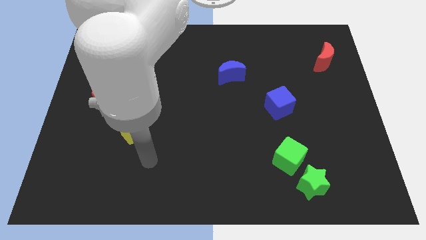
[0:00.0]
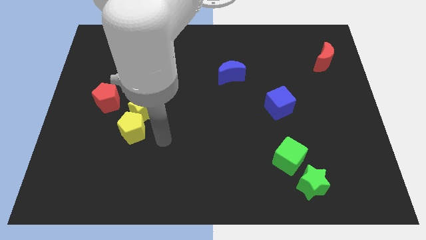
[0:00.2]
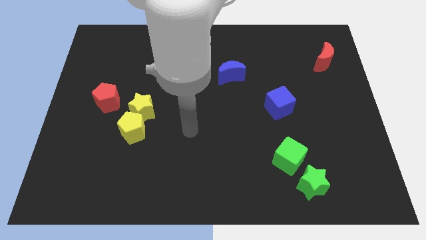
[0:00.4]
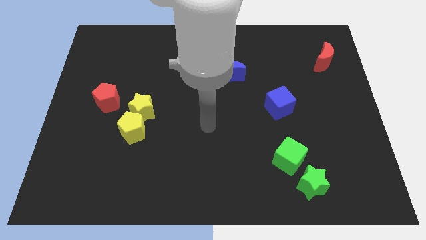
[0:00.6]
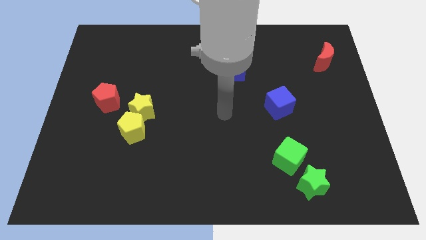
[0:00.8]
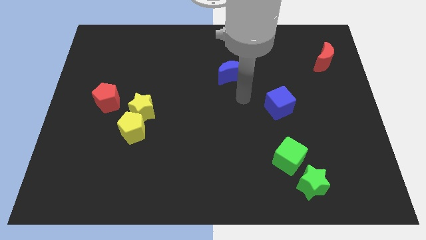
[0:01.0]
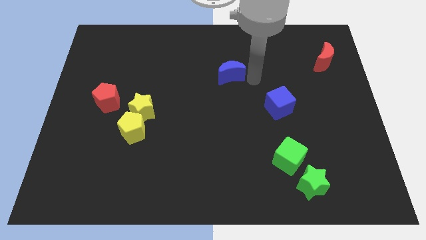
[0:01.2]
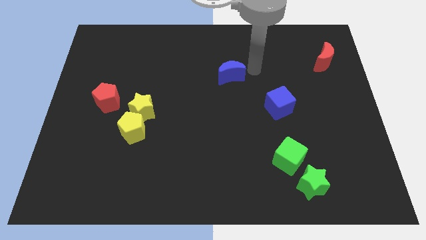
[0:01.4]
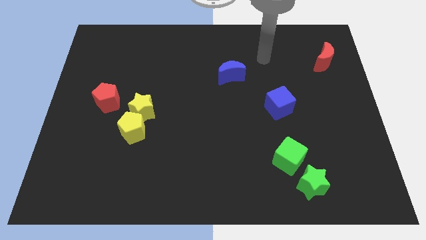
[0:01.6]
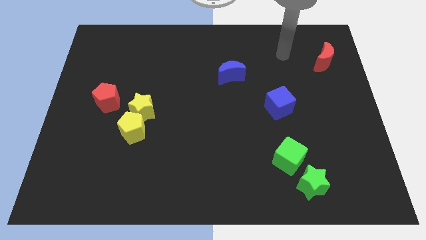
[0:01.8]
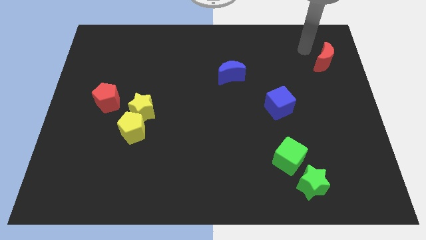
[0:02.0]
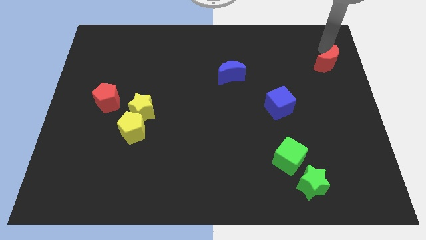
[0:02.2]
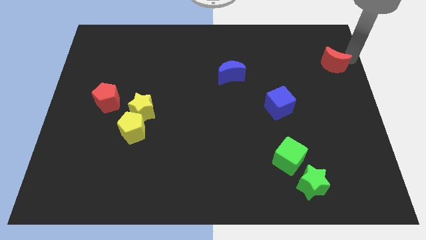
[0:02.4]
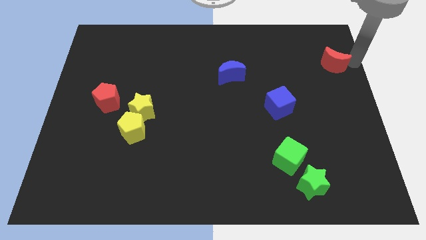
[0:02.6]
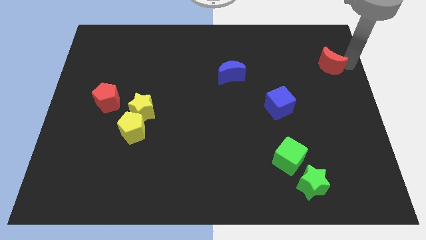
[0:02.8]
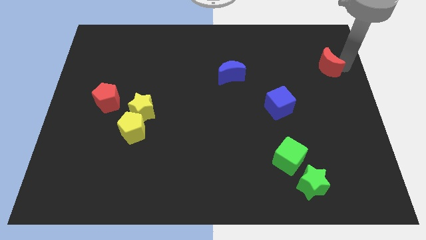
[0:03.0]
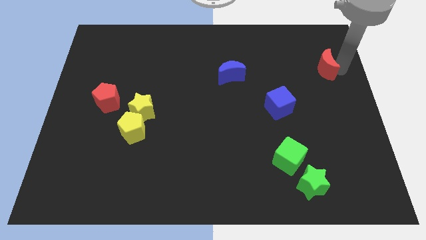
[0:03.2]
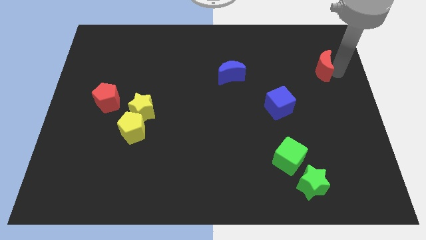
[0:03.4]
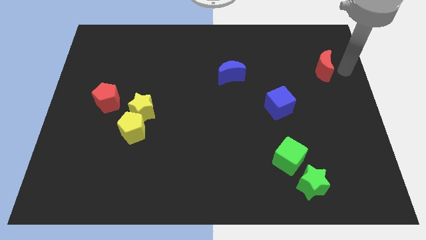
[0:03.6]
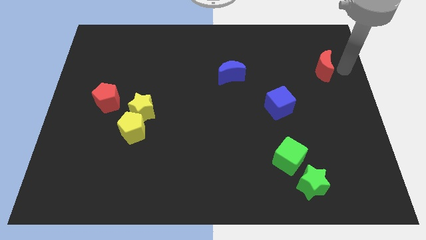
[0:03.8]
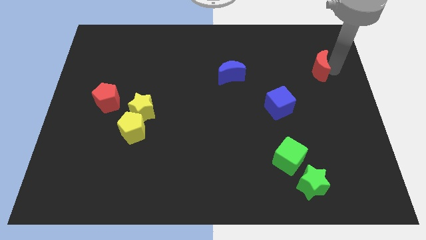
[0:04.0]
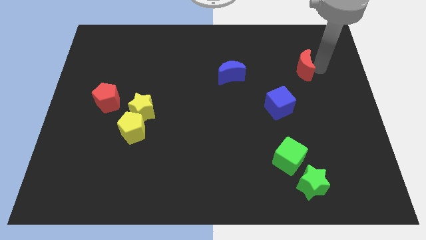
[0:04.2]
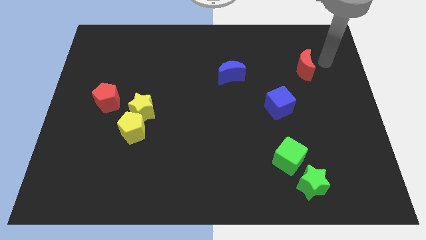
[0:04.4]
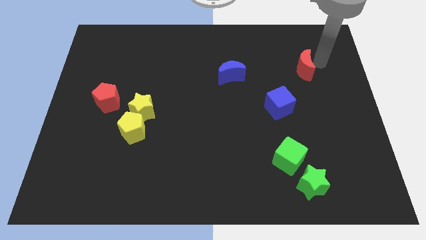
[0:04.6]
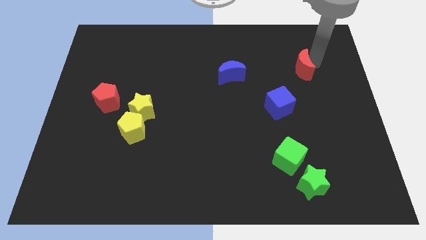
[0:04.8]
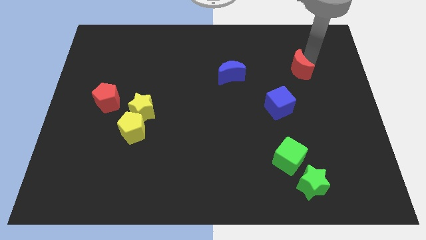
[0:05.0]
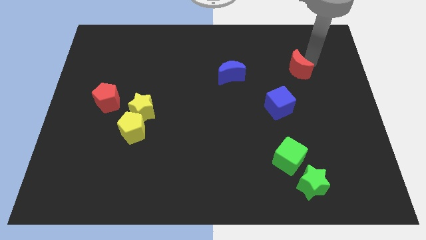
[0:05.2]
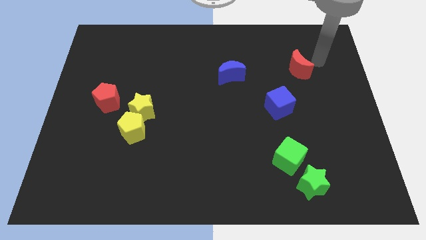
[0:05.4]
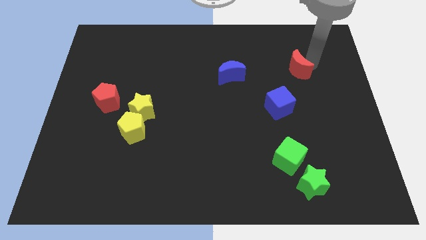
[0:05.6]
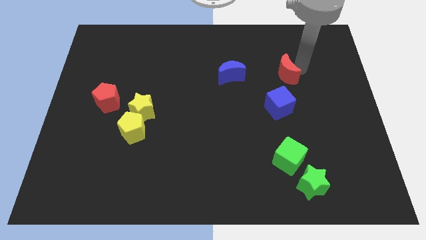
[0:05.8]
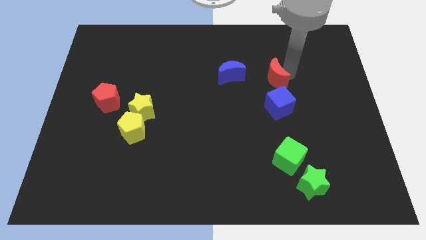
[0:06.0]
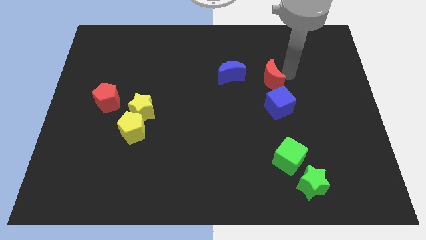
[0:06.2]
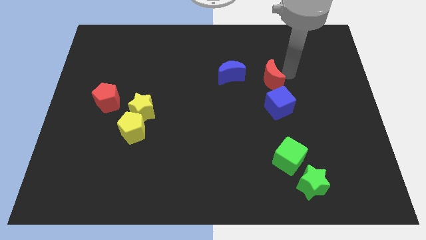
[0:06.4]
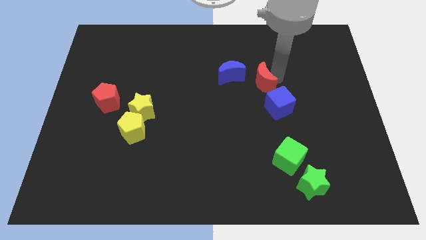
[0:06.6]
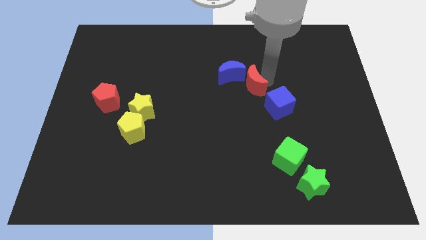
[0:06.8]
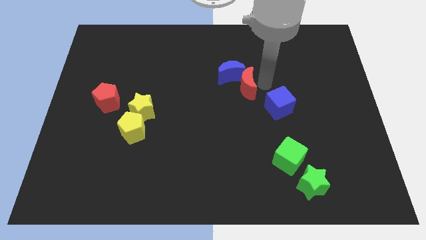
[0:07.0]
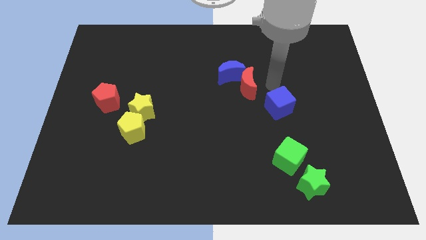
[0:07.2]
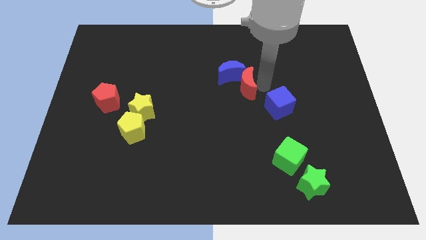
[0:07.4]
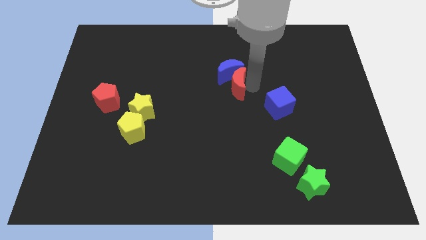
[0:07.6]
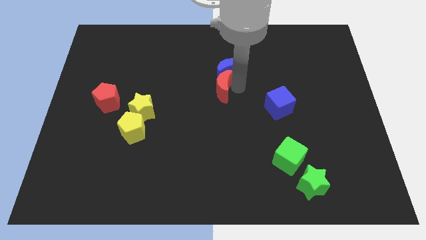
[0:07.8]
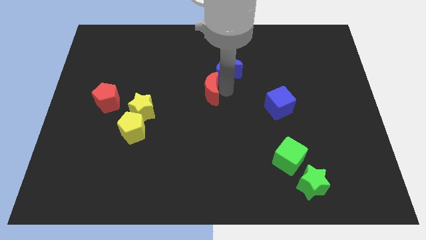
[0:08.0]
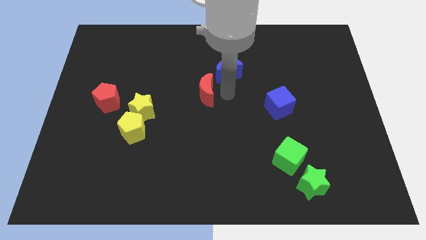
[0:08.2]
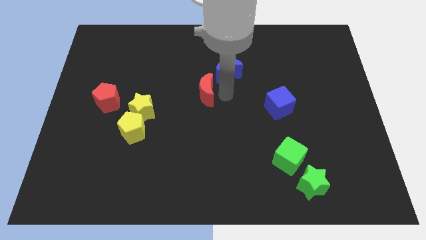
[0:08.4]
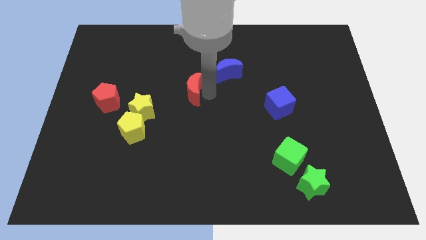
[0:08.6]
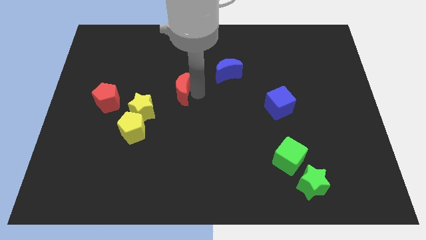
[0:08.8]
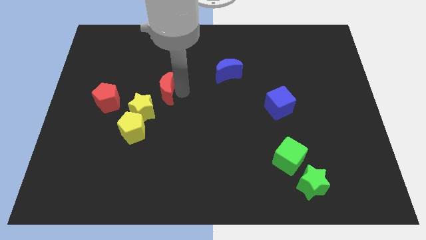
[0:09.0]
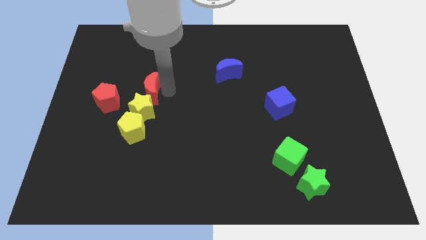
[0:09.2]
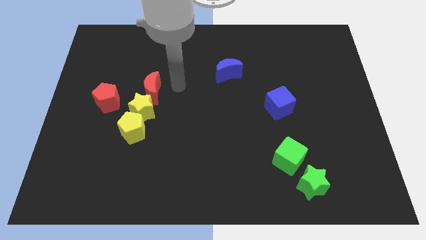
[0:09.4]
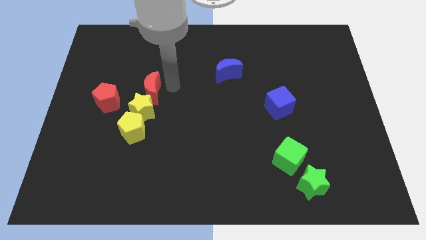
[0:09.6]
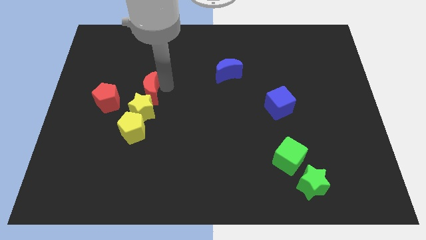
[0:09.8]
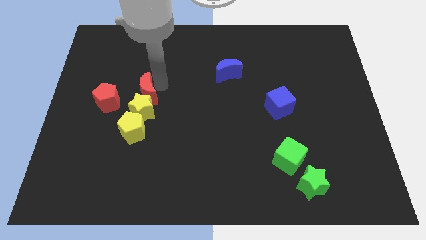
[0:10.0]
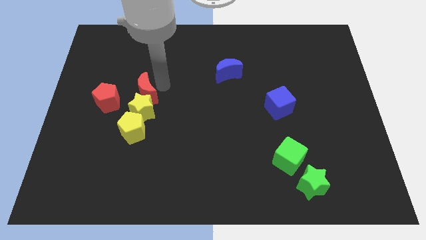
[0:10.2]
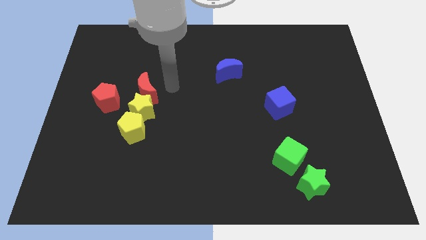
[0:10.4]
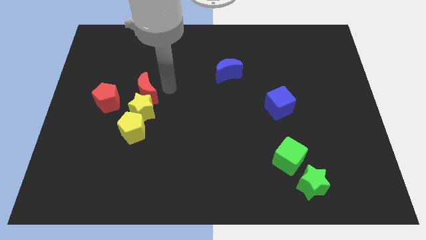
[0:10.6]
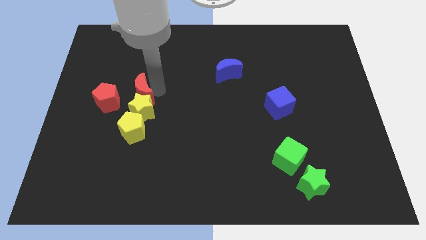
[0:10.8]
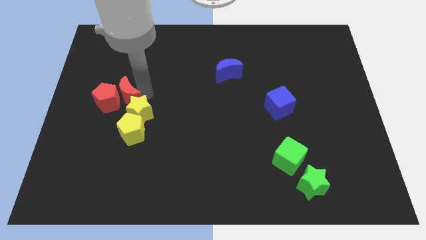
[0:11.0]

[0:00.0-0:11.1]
slide the red moon next to the red pentagon
